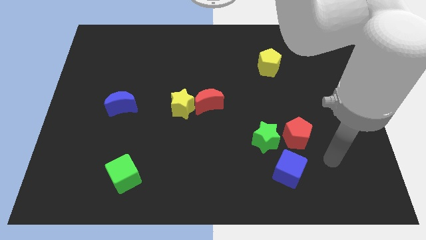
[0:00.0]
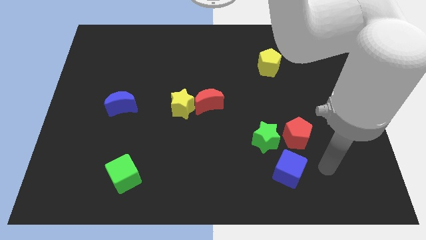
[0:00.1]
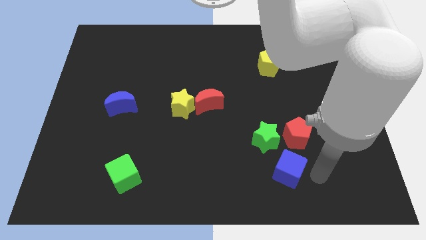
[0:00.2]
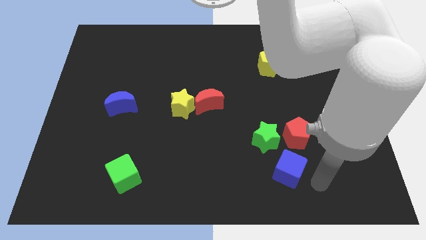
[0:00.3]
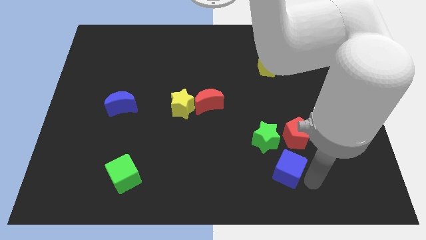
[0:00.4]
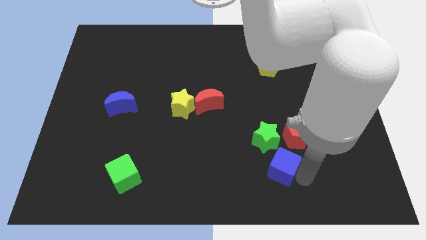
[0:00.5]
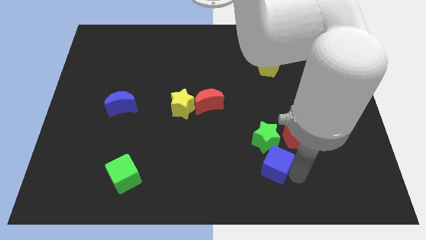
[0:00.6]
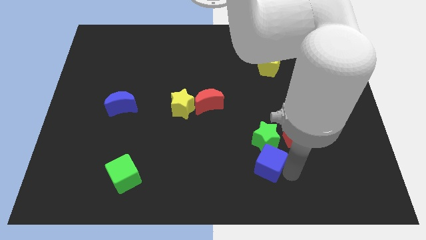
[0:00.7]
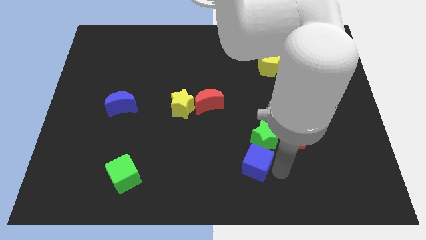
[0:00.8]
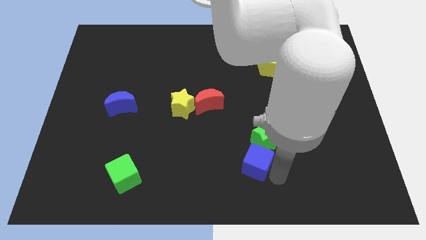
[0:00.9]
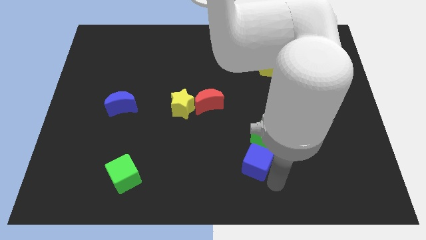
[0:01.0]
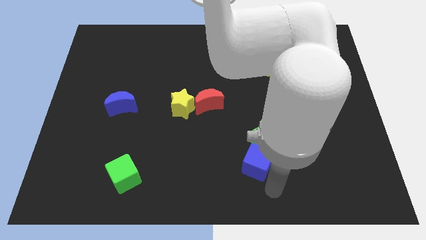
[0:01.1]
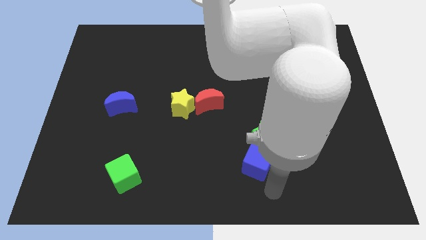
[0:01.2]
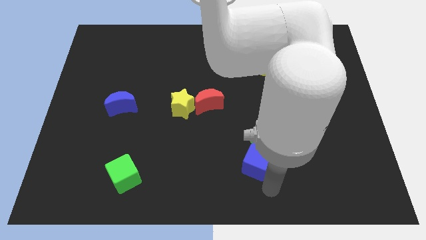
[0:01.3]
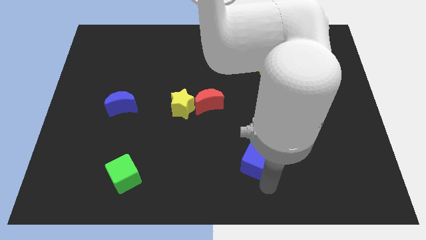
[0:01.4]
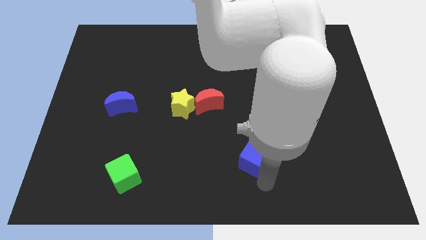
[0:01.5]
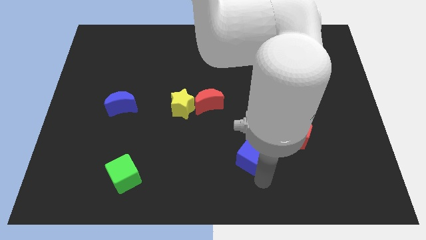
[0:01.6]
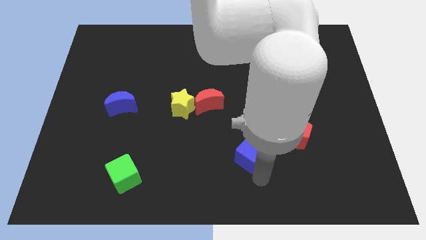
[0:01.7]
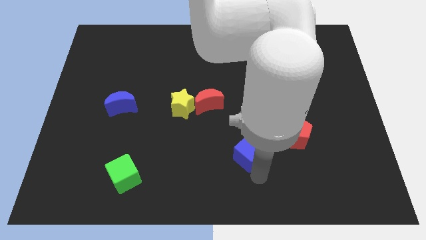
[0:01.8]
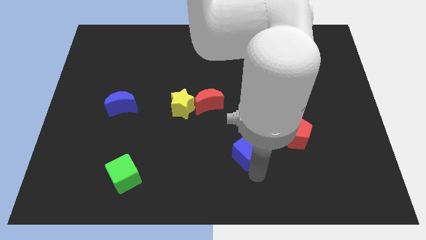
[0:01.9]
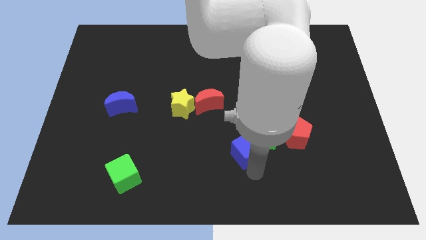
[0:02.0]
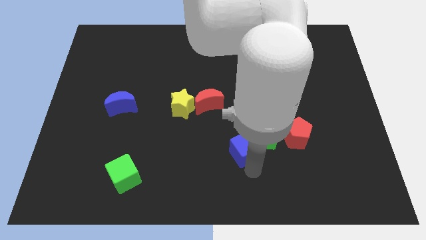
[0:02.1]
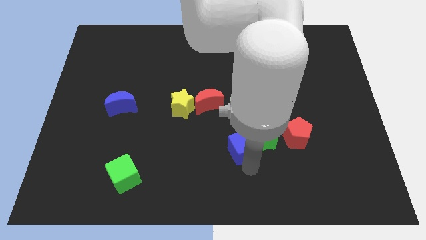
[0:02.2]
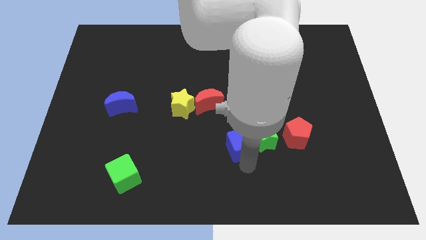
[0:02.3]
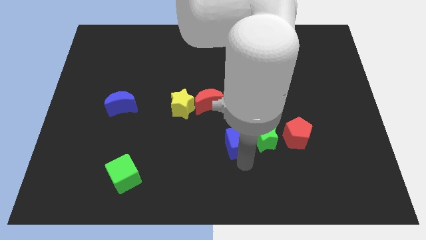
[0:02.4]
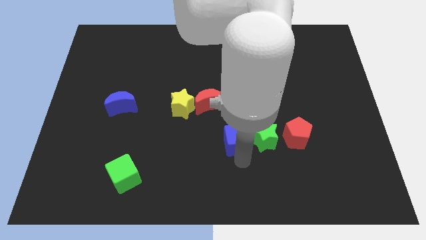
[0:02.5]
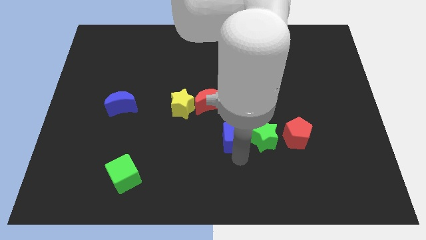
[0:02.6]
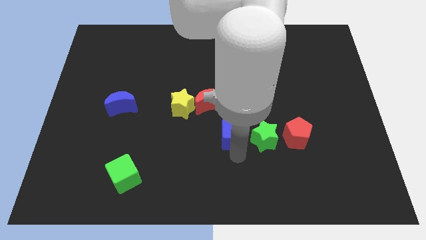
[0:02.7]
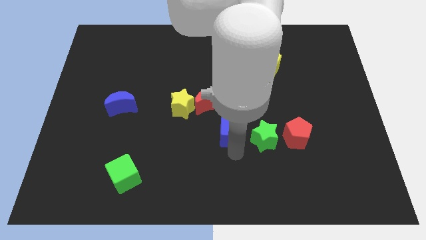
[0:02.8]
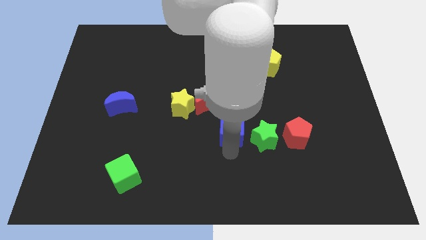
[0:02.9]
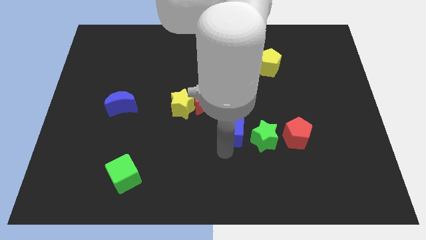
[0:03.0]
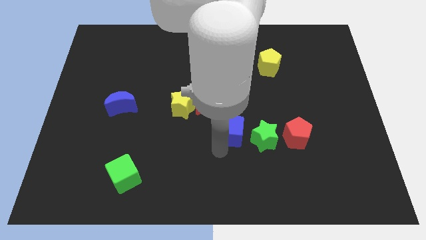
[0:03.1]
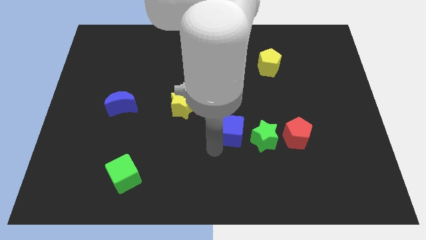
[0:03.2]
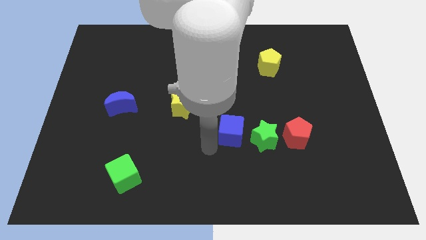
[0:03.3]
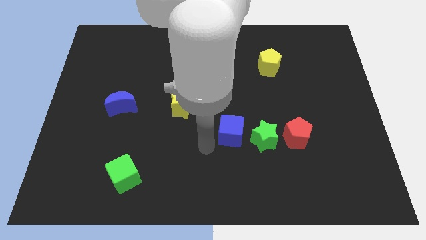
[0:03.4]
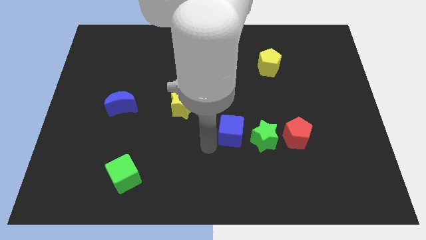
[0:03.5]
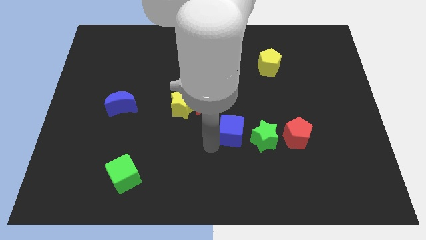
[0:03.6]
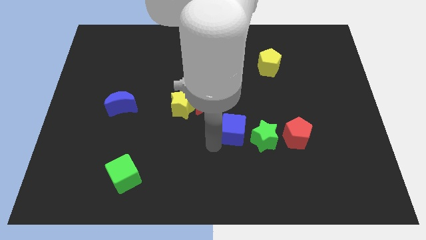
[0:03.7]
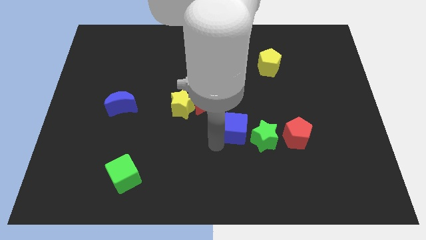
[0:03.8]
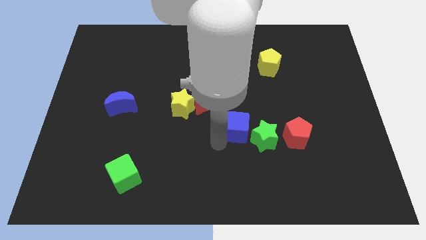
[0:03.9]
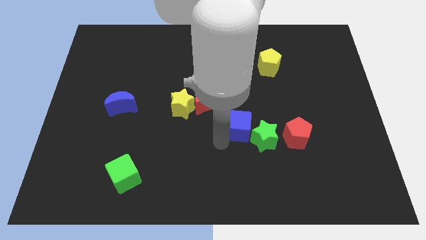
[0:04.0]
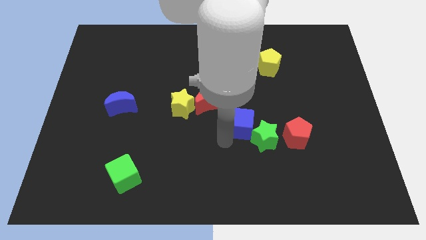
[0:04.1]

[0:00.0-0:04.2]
move the blue cube up a bit

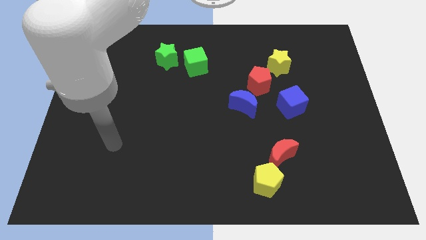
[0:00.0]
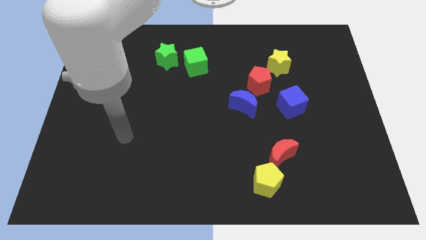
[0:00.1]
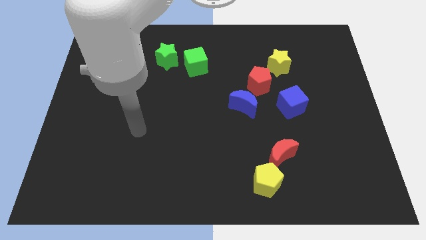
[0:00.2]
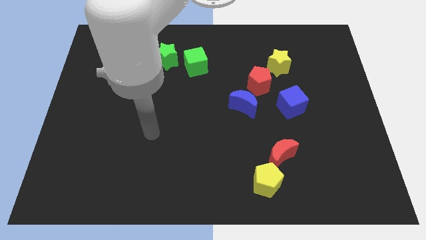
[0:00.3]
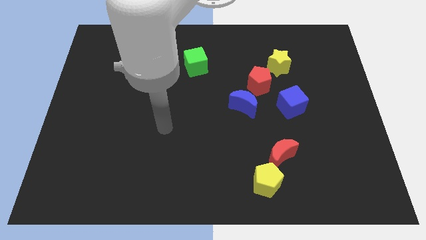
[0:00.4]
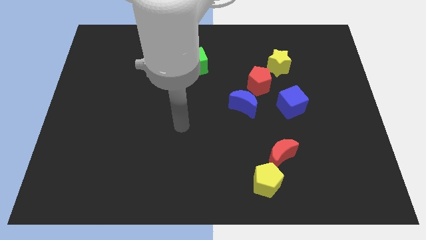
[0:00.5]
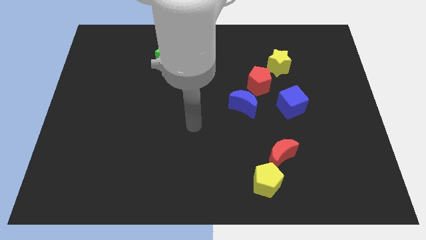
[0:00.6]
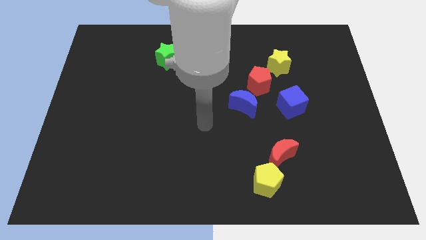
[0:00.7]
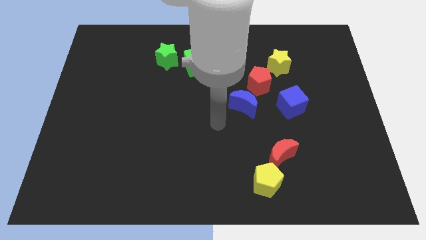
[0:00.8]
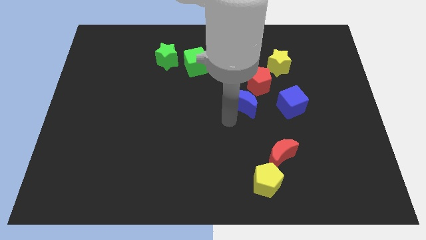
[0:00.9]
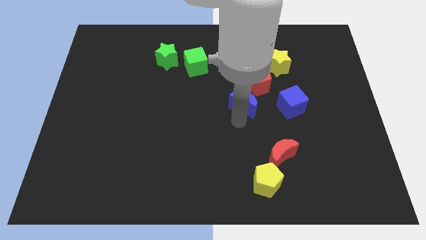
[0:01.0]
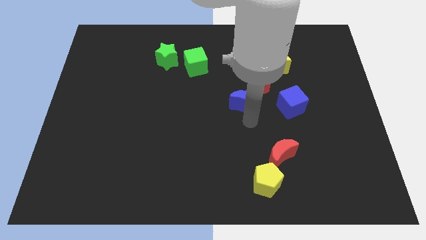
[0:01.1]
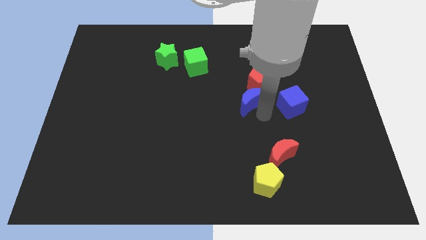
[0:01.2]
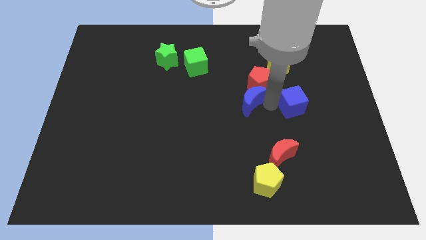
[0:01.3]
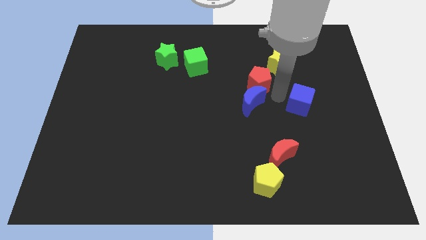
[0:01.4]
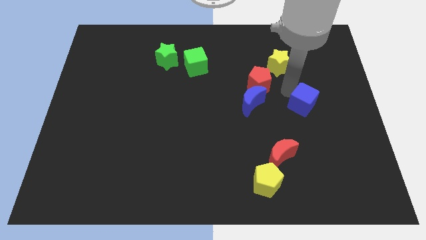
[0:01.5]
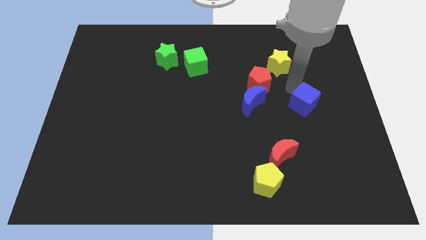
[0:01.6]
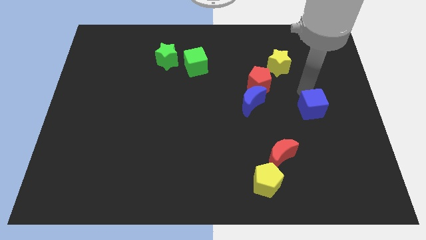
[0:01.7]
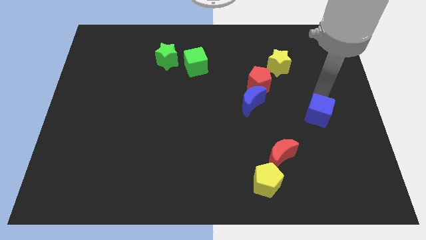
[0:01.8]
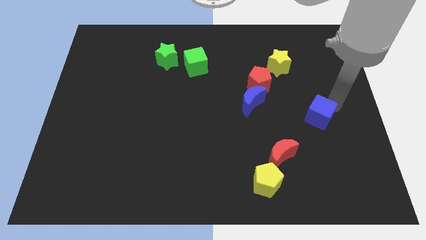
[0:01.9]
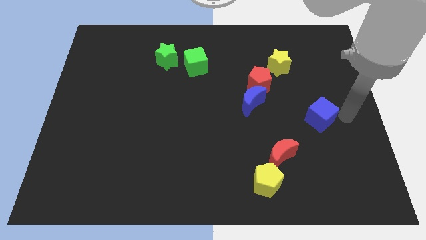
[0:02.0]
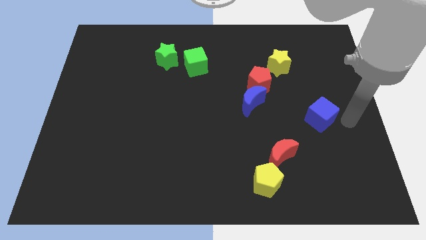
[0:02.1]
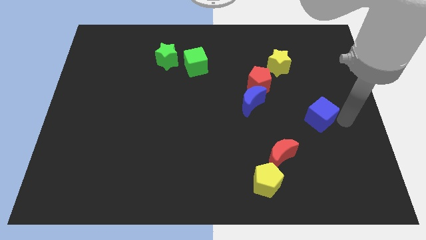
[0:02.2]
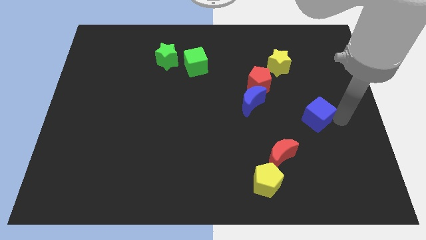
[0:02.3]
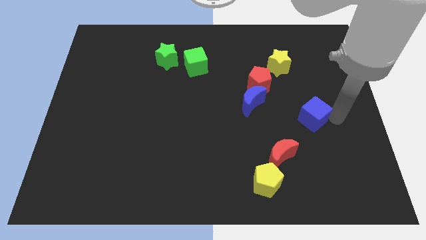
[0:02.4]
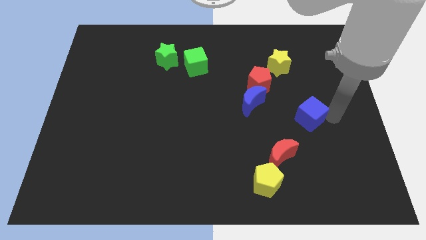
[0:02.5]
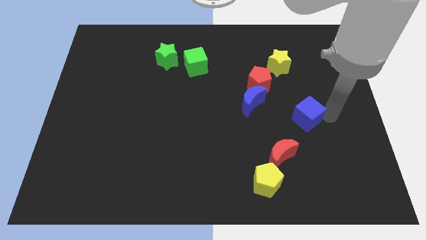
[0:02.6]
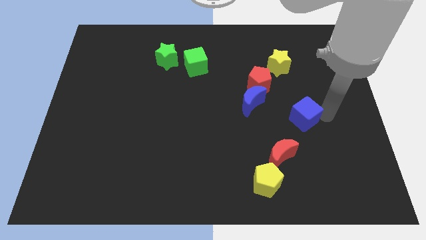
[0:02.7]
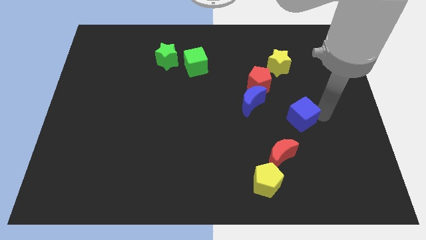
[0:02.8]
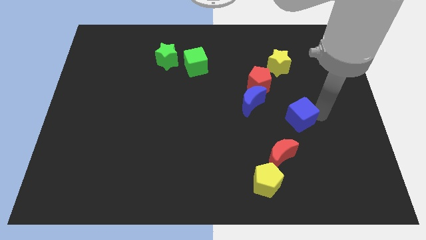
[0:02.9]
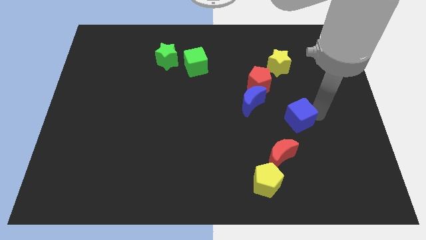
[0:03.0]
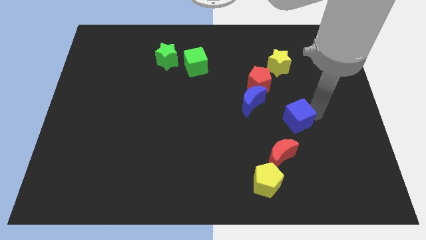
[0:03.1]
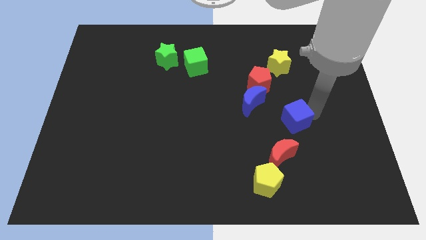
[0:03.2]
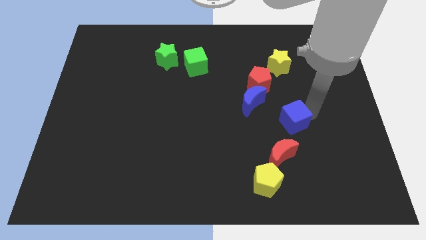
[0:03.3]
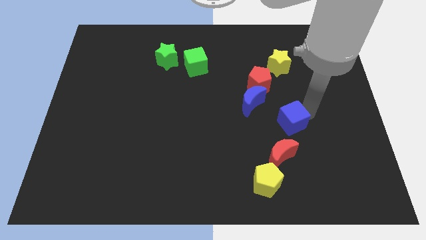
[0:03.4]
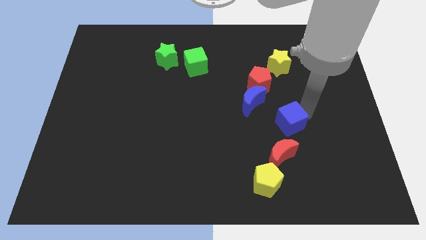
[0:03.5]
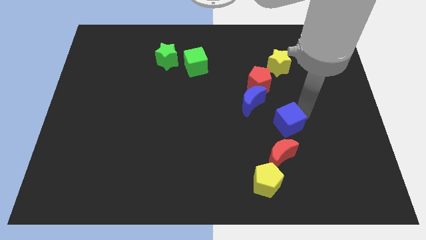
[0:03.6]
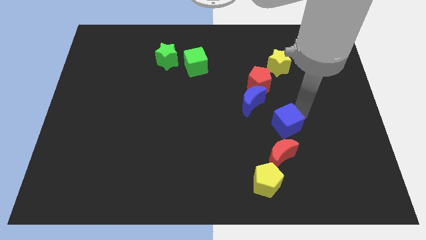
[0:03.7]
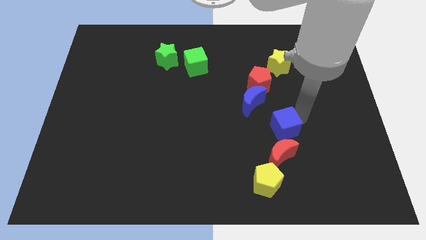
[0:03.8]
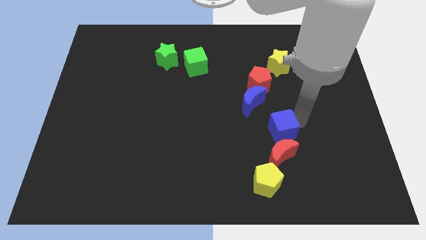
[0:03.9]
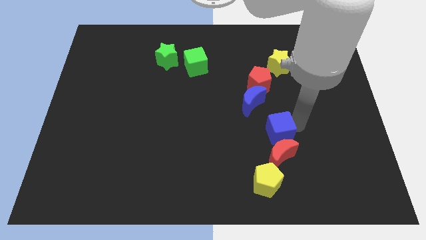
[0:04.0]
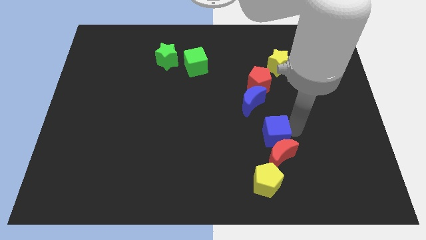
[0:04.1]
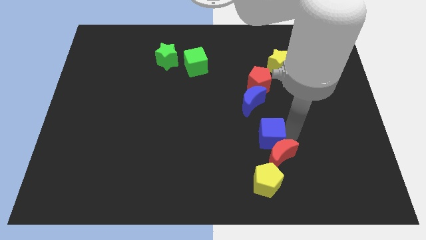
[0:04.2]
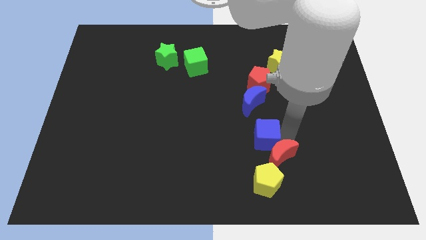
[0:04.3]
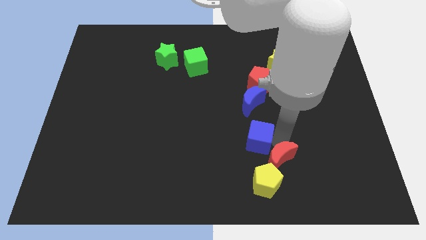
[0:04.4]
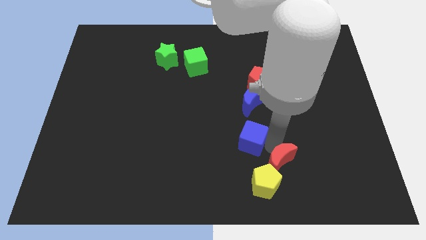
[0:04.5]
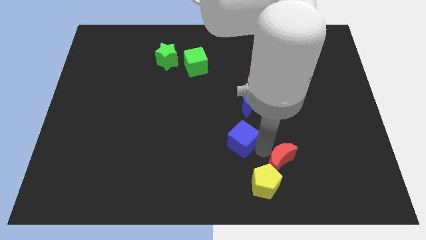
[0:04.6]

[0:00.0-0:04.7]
slightly slide the blue cube to the left
